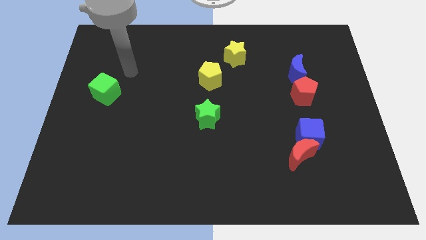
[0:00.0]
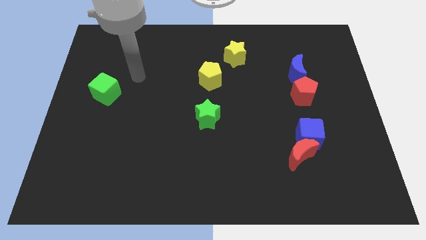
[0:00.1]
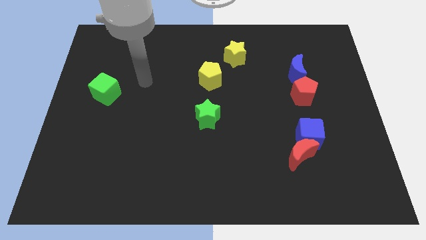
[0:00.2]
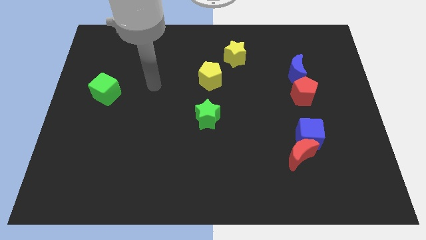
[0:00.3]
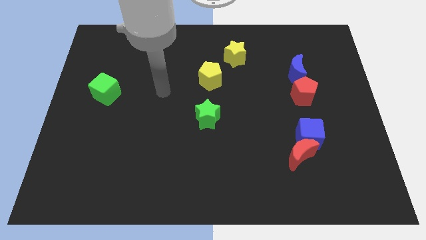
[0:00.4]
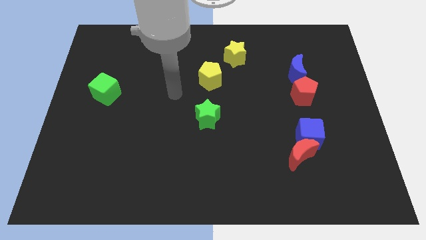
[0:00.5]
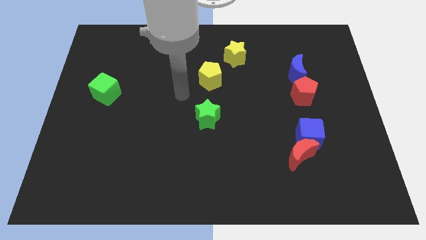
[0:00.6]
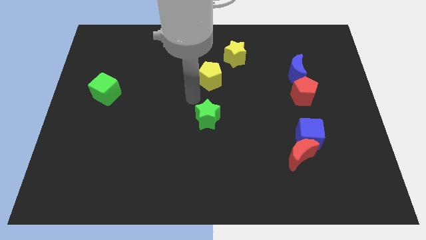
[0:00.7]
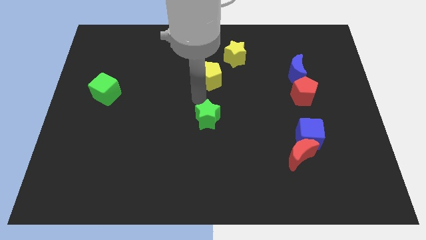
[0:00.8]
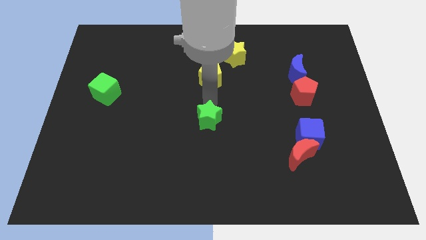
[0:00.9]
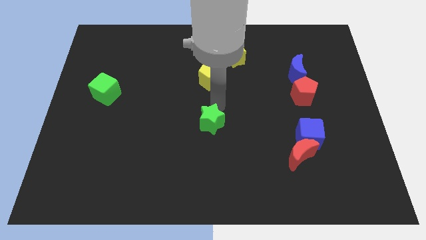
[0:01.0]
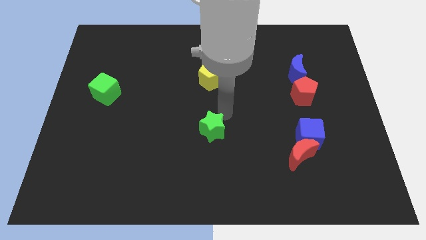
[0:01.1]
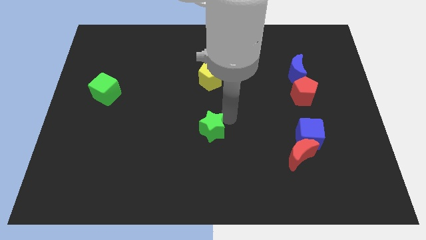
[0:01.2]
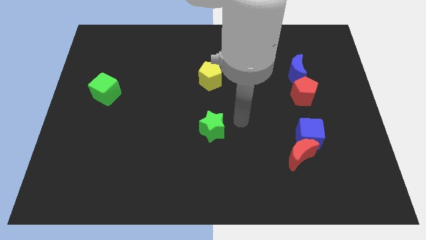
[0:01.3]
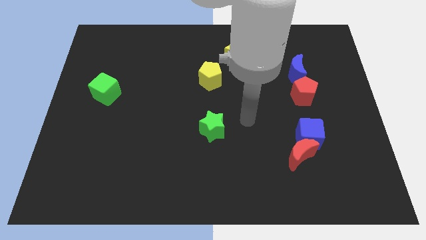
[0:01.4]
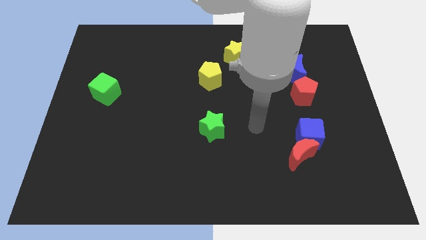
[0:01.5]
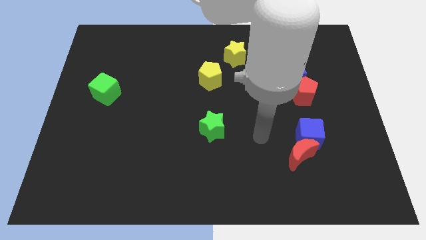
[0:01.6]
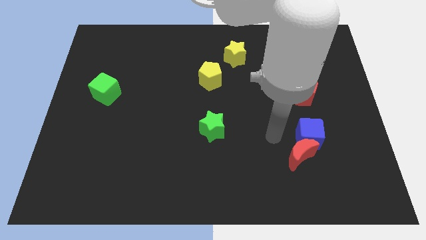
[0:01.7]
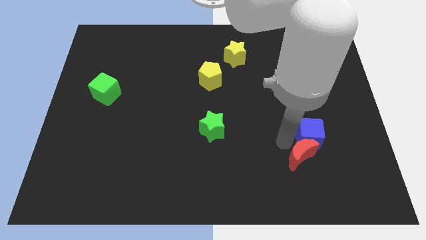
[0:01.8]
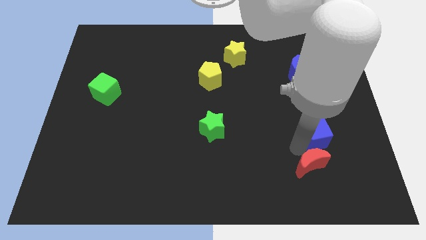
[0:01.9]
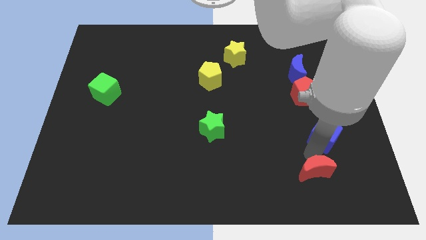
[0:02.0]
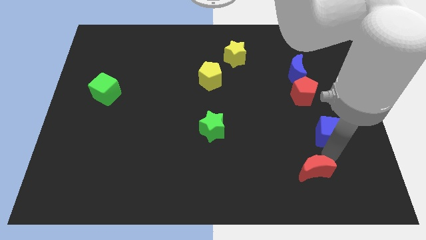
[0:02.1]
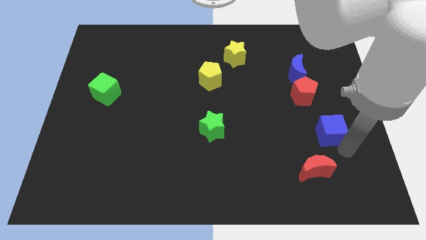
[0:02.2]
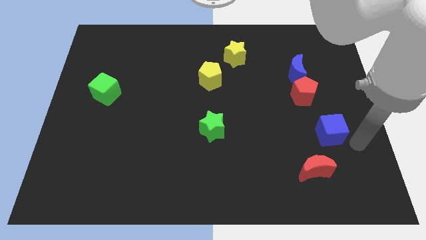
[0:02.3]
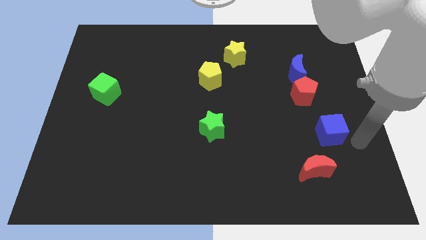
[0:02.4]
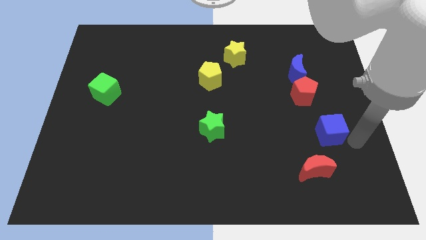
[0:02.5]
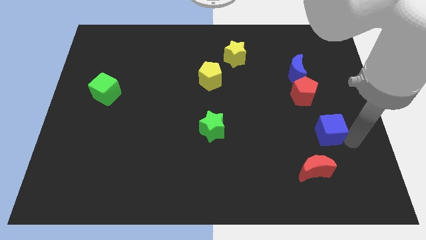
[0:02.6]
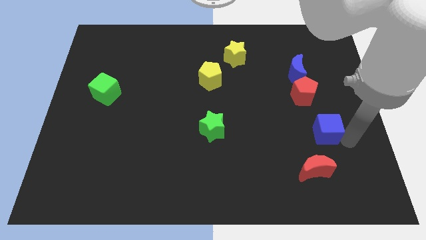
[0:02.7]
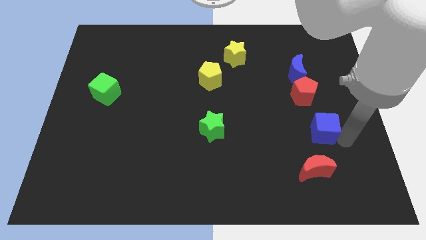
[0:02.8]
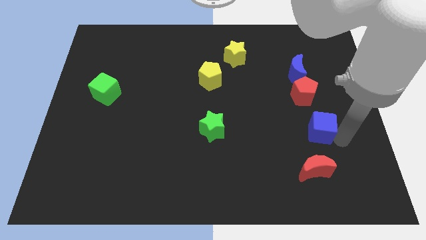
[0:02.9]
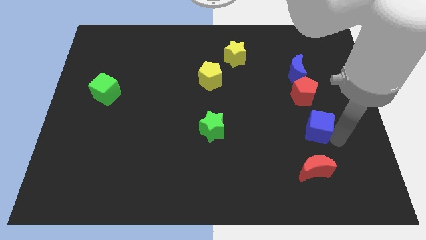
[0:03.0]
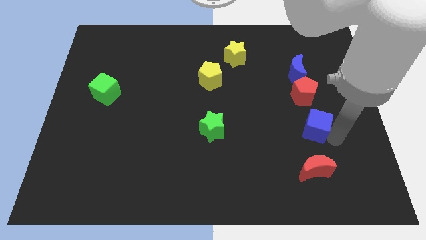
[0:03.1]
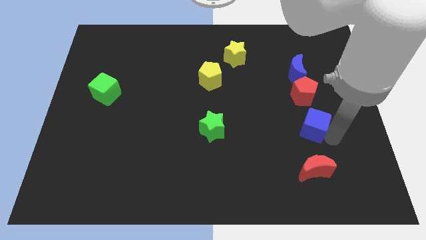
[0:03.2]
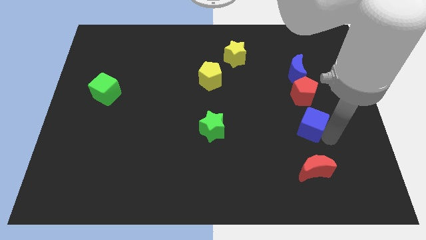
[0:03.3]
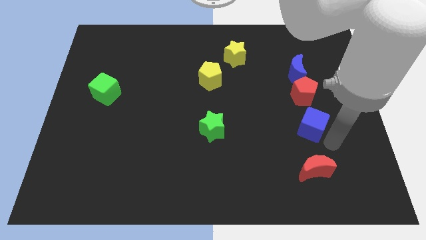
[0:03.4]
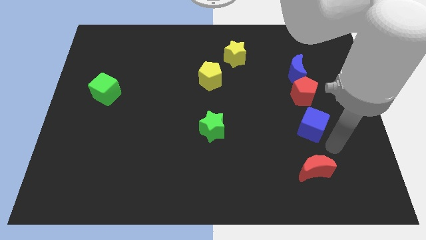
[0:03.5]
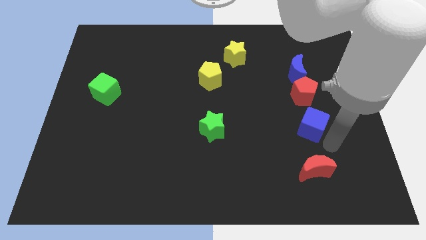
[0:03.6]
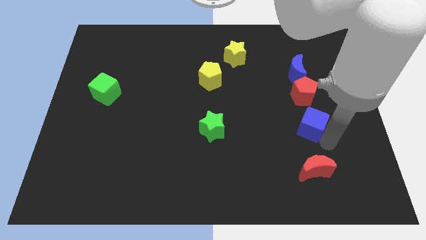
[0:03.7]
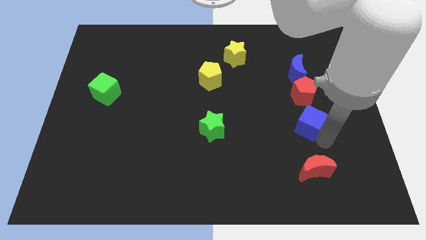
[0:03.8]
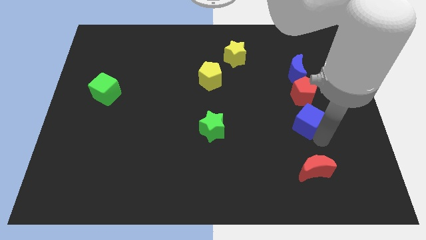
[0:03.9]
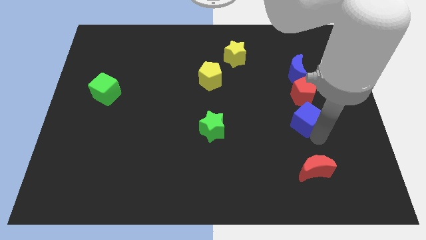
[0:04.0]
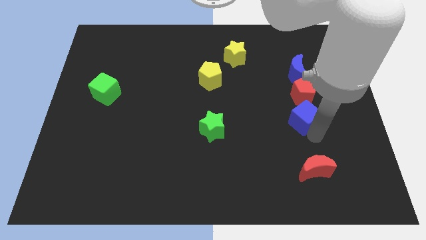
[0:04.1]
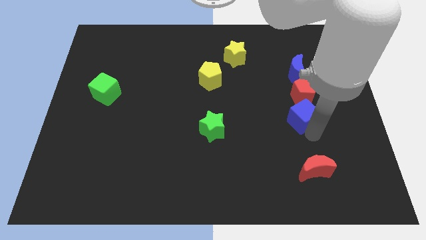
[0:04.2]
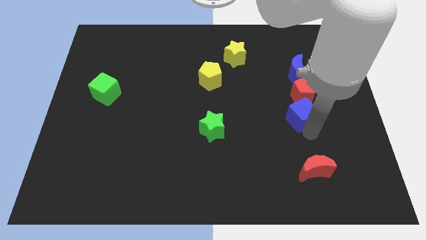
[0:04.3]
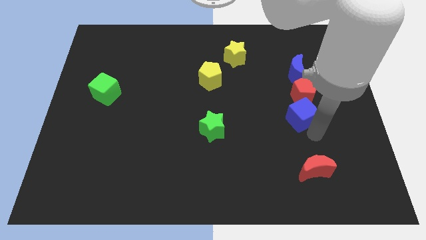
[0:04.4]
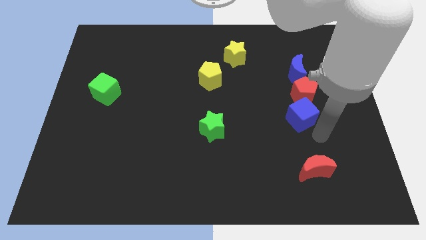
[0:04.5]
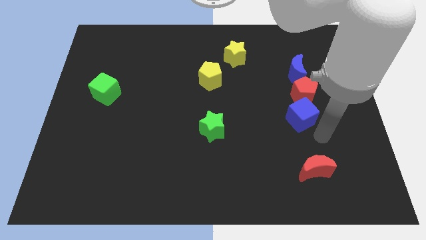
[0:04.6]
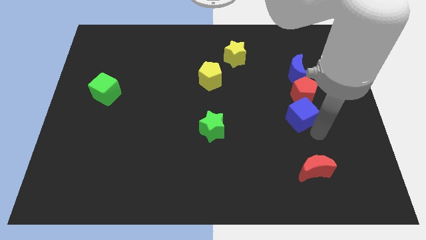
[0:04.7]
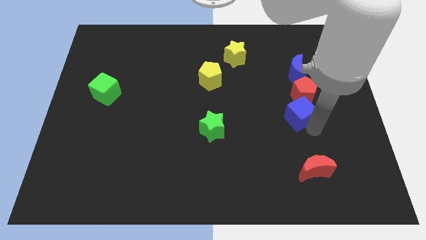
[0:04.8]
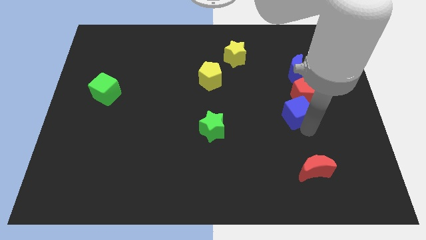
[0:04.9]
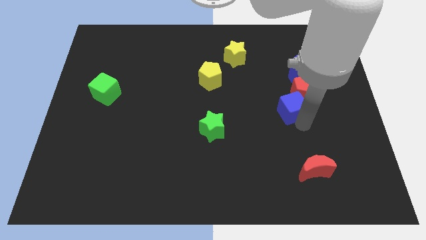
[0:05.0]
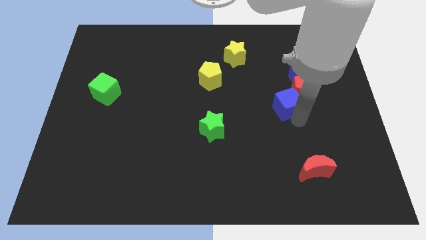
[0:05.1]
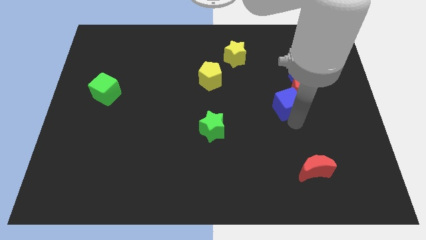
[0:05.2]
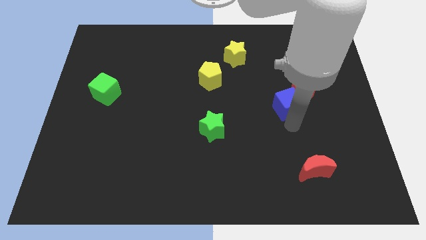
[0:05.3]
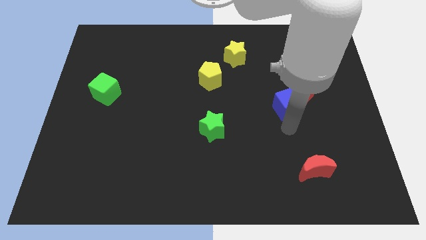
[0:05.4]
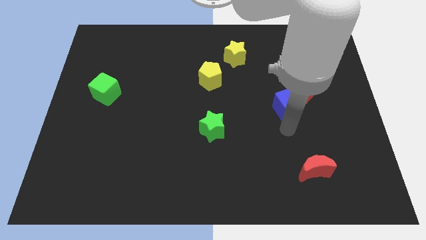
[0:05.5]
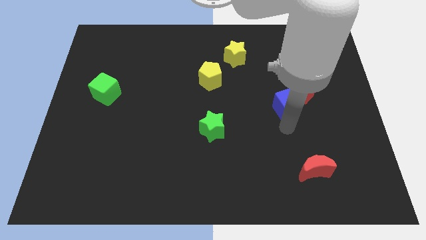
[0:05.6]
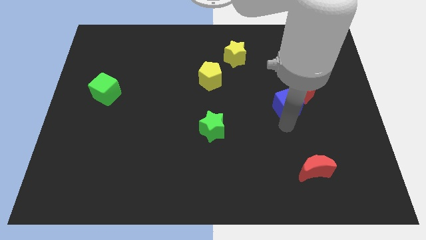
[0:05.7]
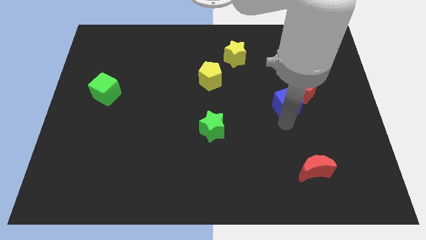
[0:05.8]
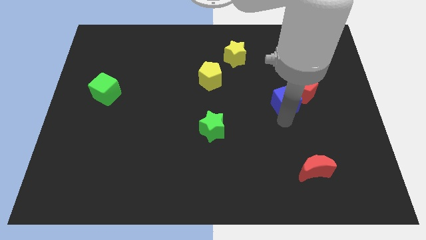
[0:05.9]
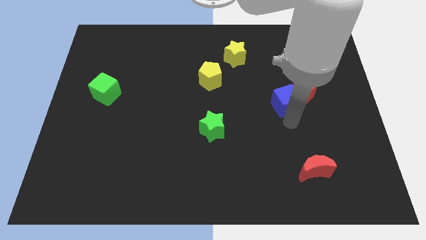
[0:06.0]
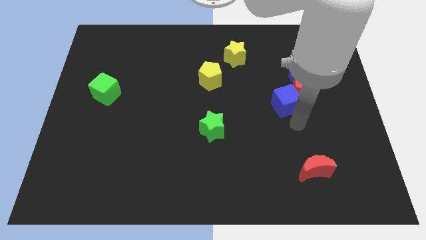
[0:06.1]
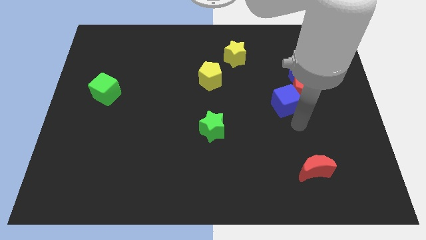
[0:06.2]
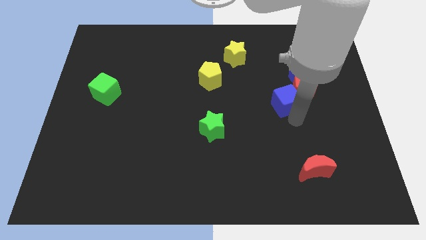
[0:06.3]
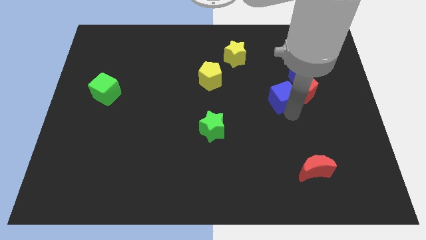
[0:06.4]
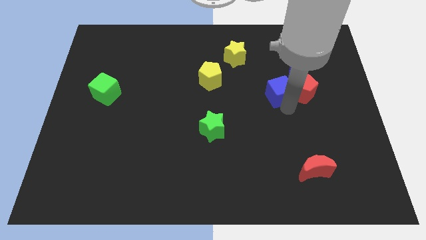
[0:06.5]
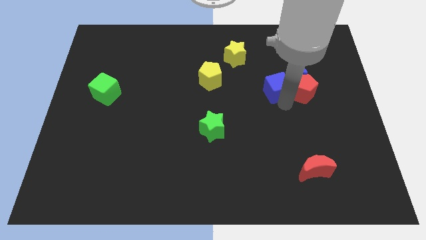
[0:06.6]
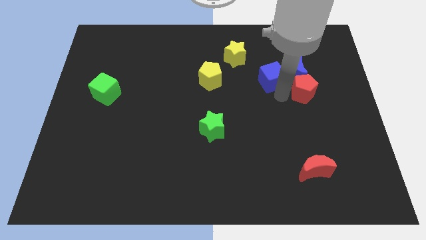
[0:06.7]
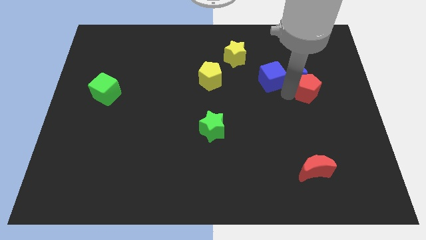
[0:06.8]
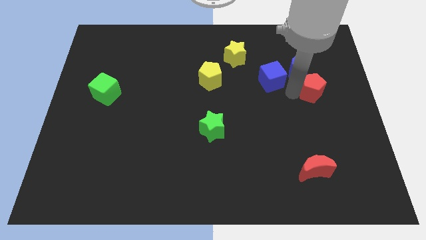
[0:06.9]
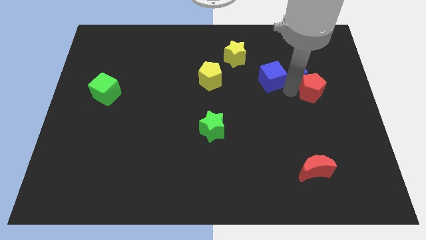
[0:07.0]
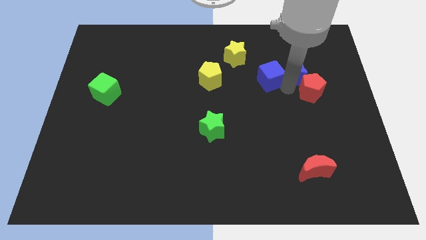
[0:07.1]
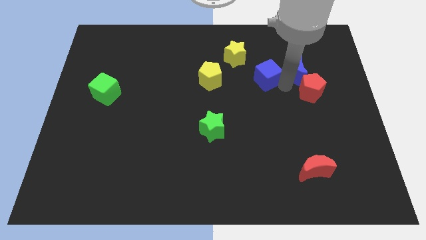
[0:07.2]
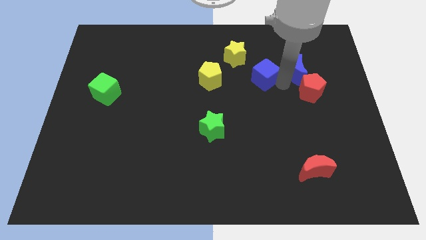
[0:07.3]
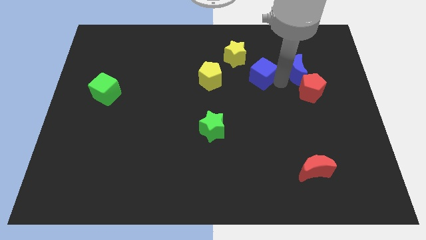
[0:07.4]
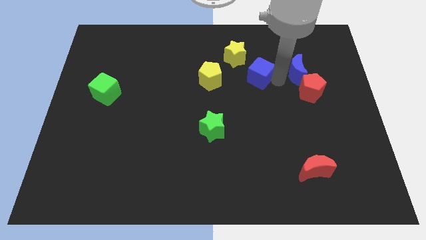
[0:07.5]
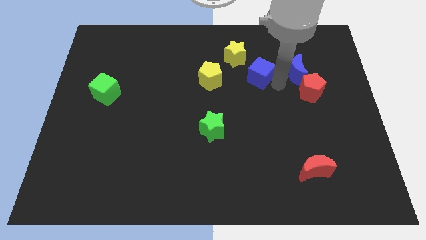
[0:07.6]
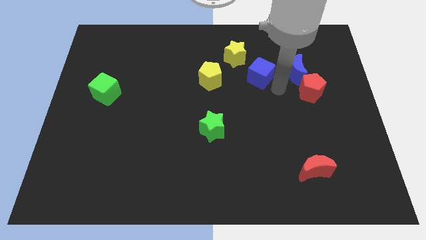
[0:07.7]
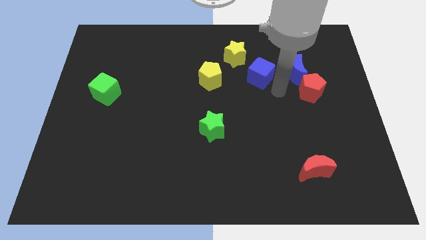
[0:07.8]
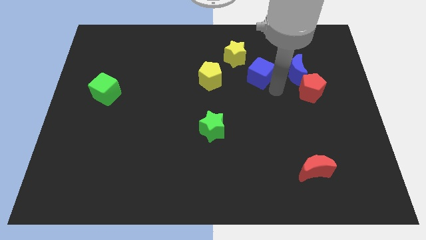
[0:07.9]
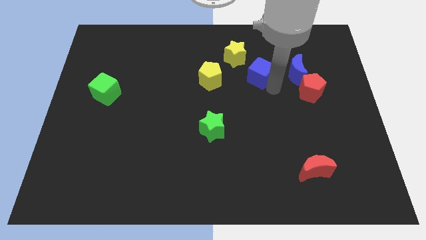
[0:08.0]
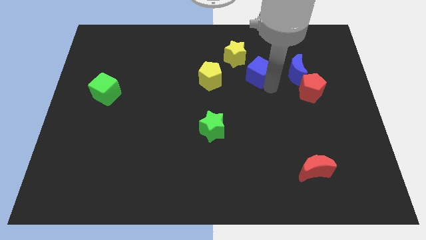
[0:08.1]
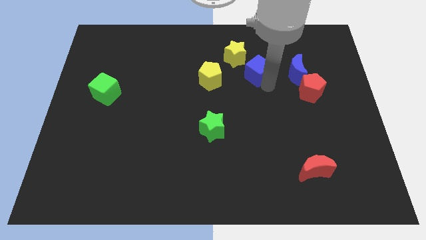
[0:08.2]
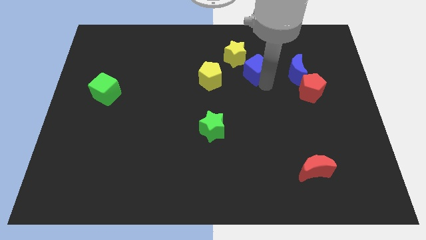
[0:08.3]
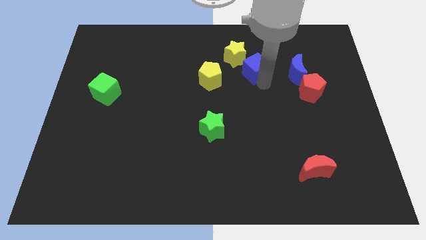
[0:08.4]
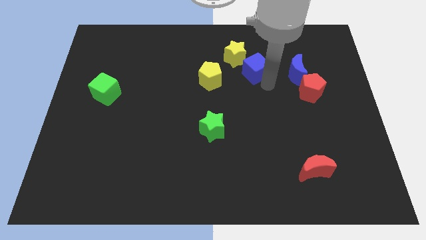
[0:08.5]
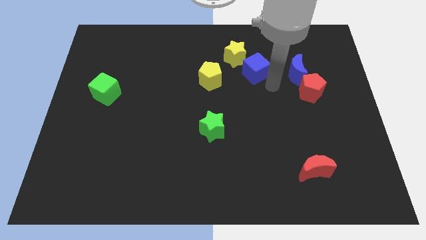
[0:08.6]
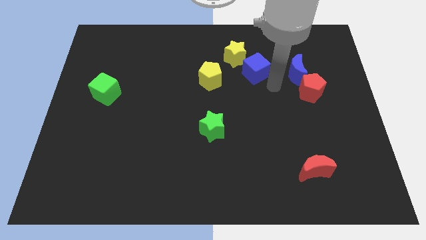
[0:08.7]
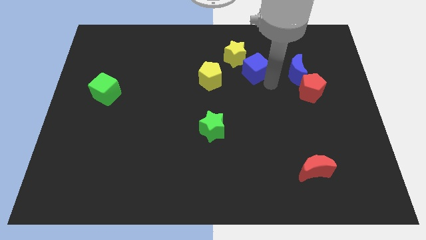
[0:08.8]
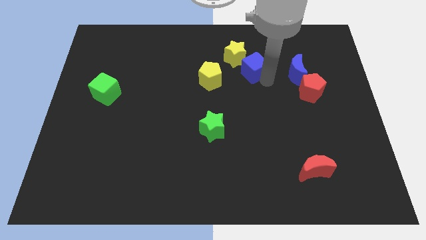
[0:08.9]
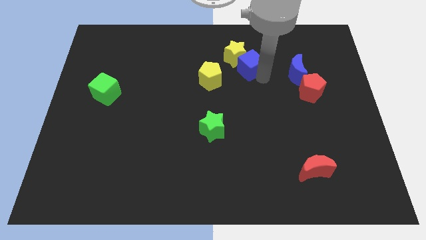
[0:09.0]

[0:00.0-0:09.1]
slide the blue cube next to the yellow star
